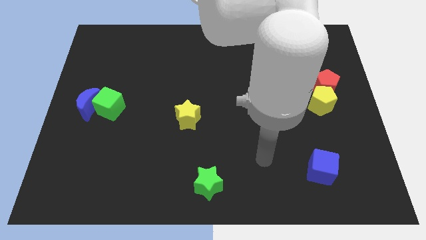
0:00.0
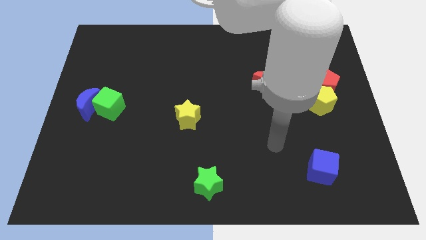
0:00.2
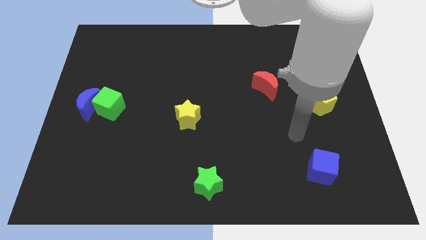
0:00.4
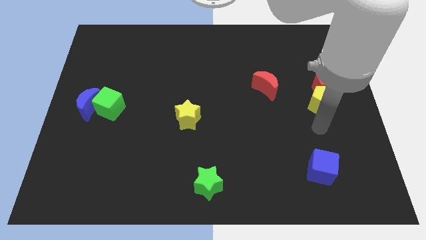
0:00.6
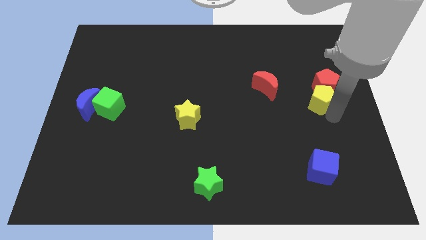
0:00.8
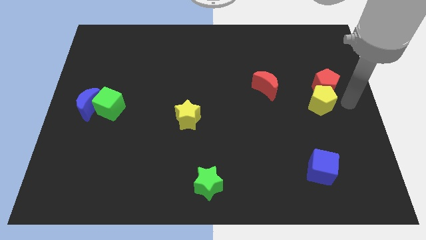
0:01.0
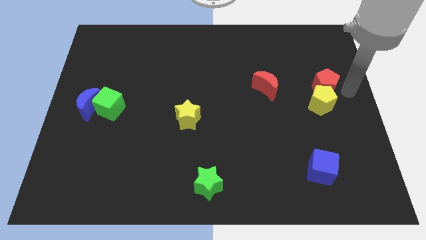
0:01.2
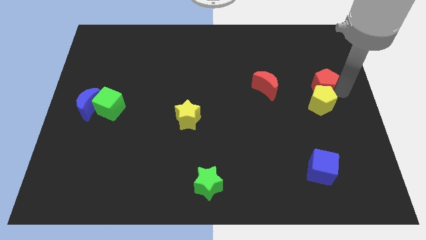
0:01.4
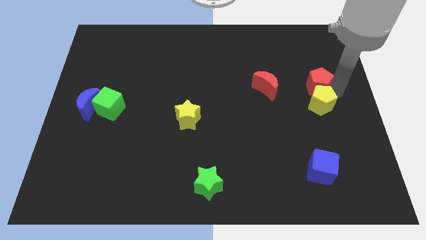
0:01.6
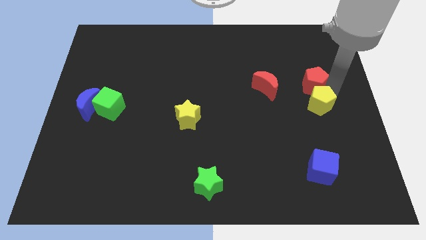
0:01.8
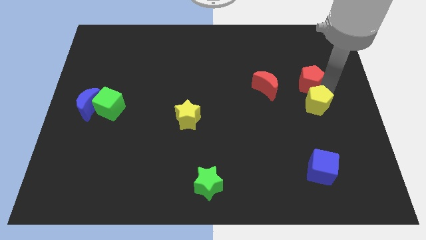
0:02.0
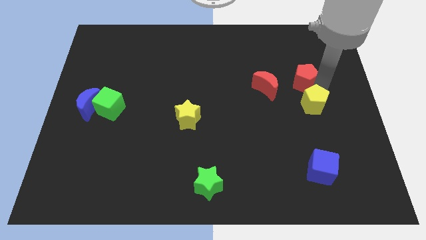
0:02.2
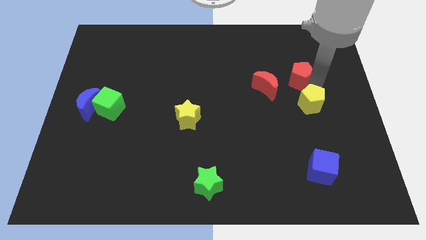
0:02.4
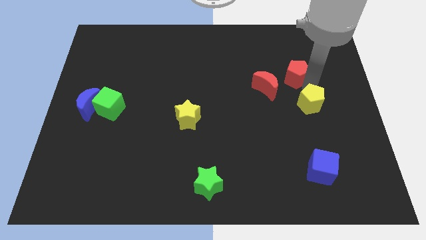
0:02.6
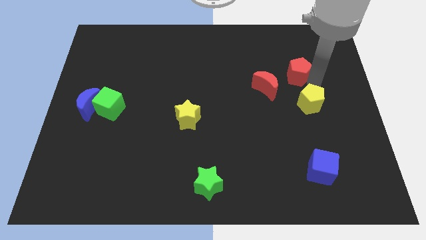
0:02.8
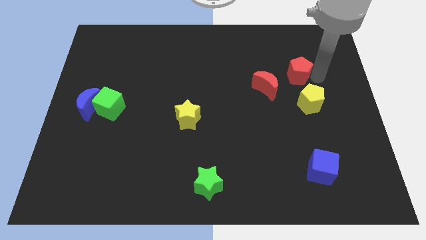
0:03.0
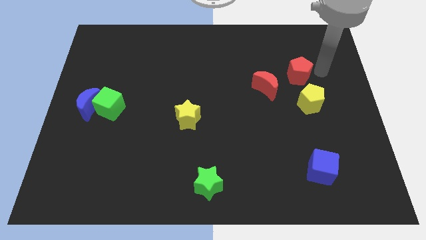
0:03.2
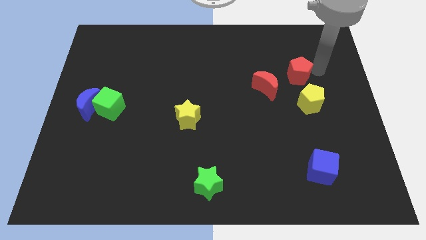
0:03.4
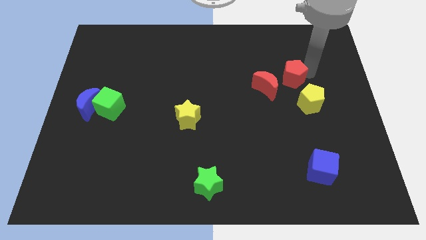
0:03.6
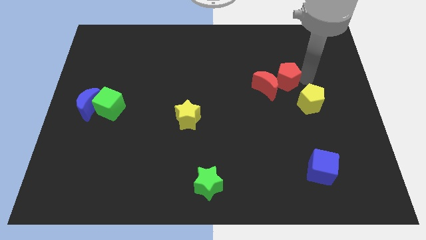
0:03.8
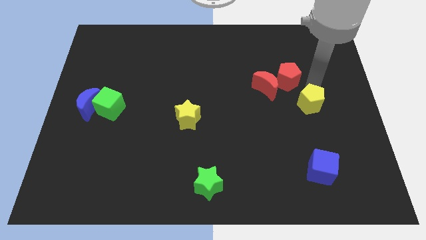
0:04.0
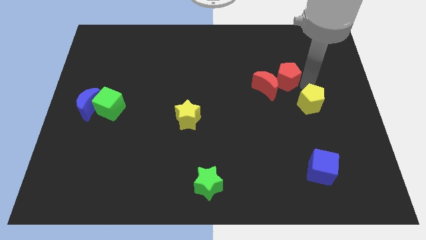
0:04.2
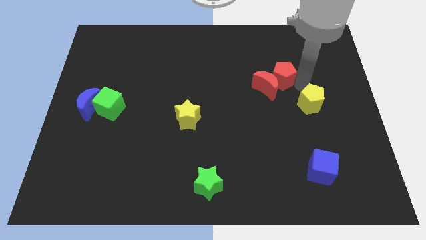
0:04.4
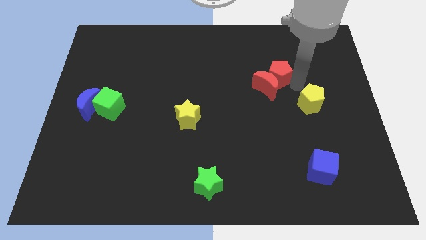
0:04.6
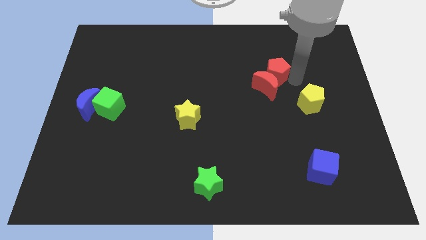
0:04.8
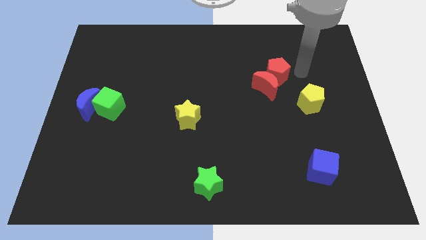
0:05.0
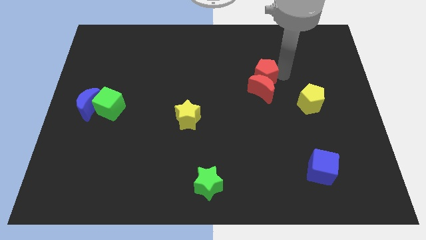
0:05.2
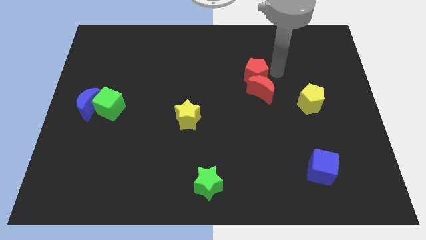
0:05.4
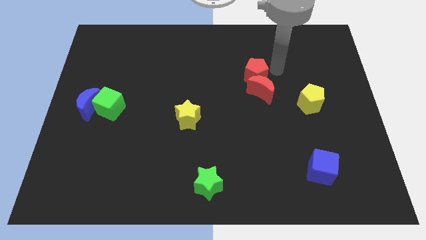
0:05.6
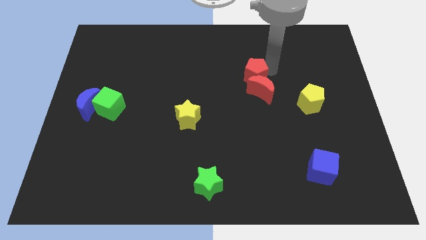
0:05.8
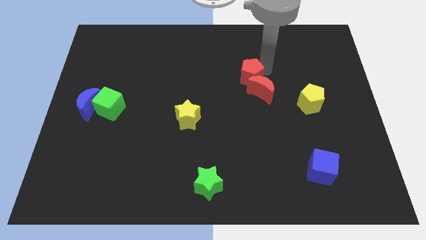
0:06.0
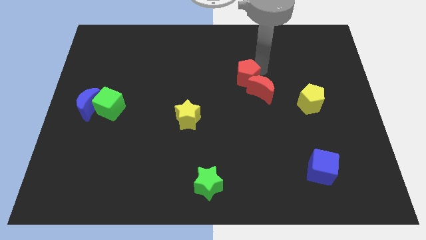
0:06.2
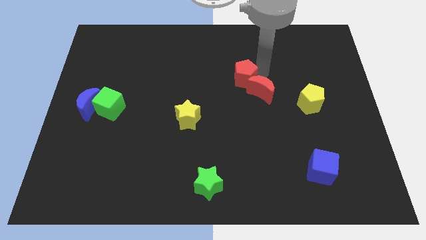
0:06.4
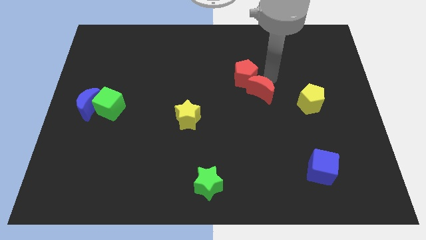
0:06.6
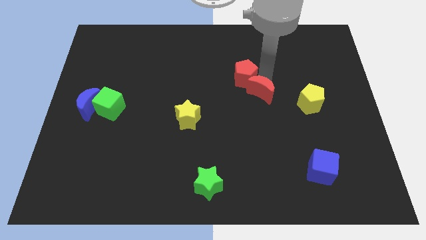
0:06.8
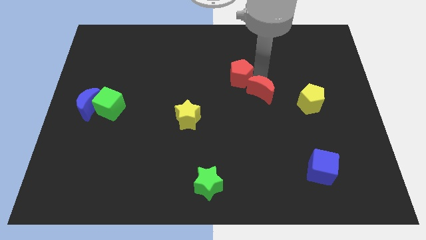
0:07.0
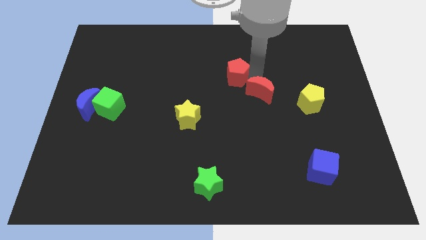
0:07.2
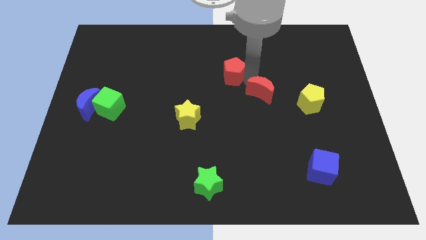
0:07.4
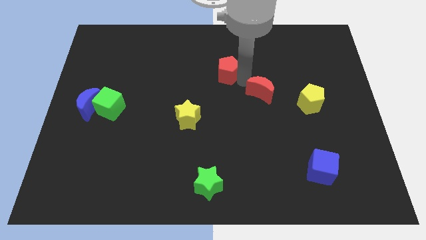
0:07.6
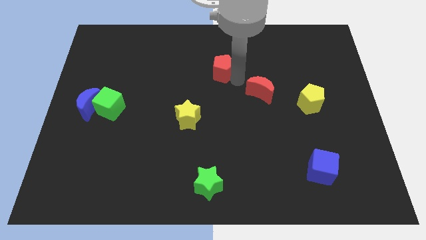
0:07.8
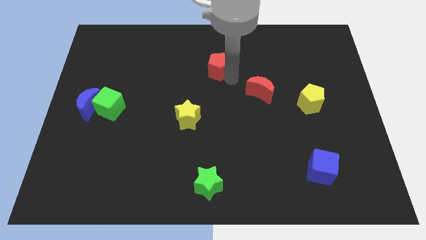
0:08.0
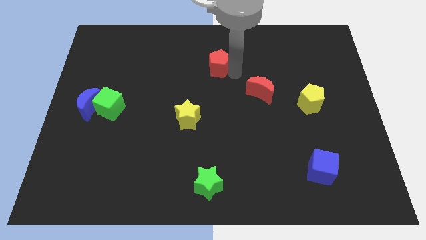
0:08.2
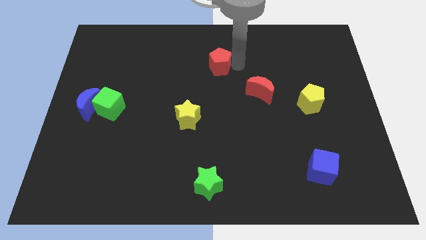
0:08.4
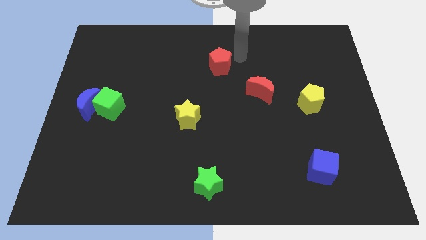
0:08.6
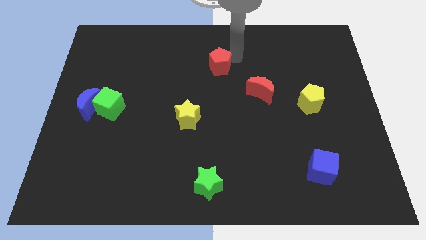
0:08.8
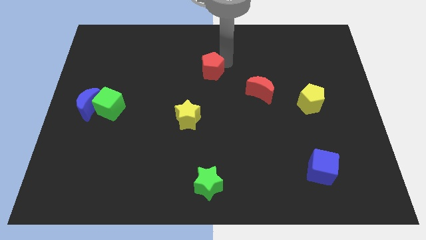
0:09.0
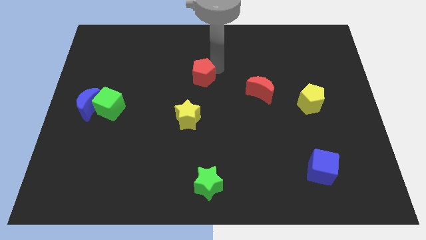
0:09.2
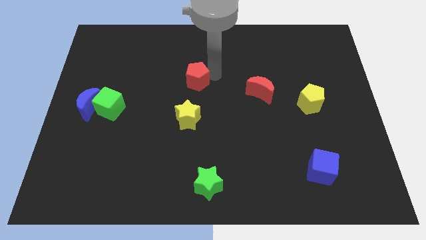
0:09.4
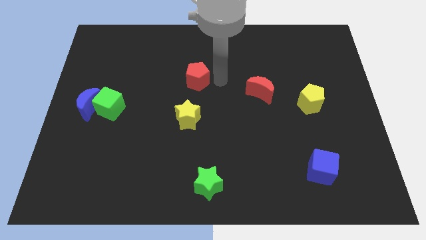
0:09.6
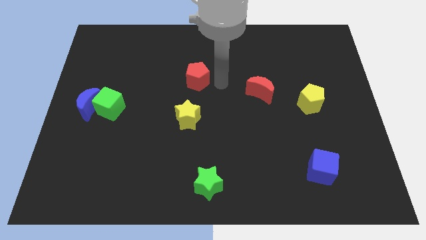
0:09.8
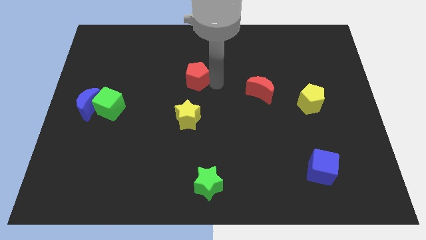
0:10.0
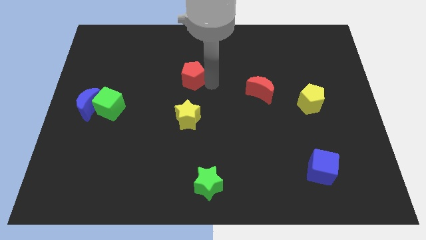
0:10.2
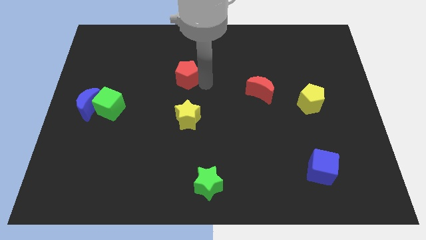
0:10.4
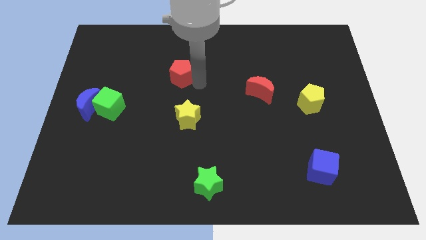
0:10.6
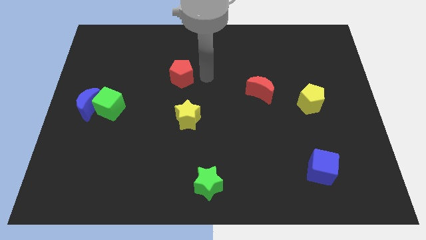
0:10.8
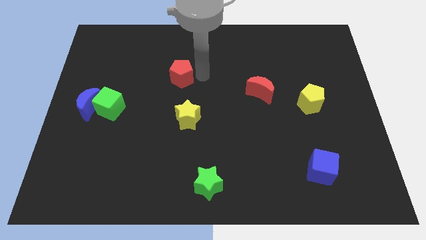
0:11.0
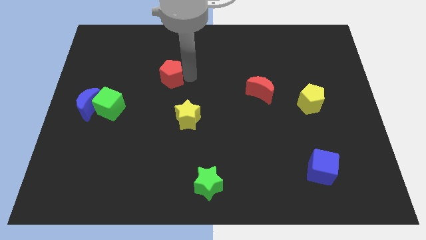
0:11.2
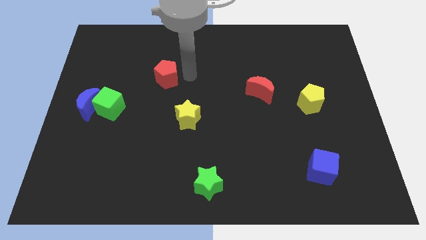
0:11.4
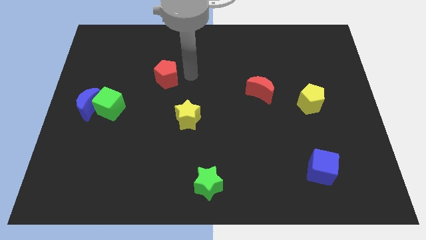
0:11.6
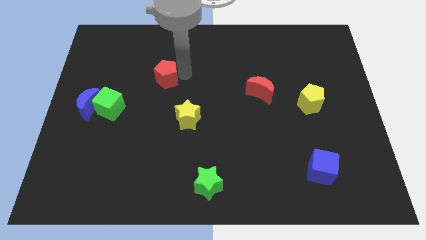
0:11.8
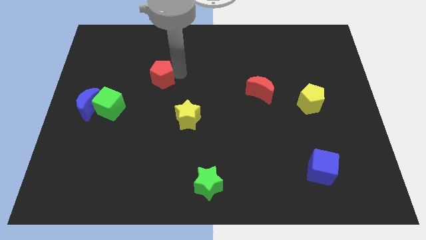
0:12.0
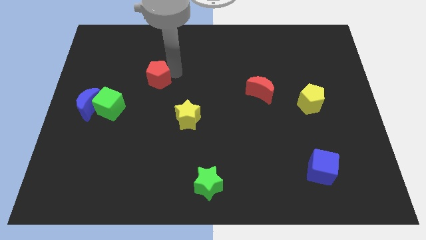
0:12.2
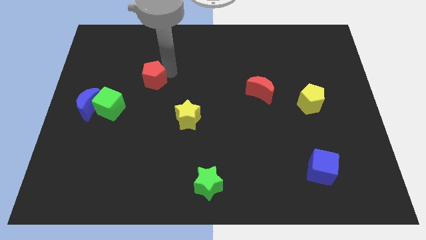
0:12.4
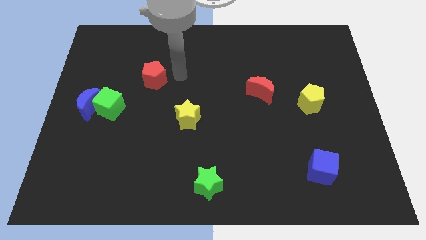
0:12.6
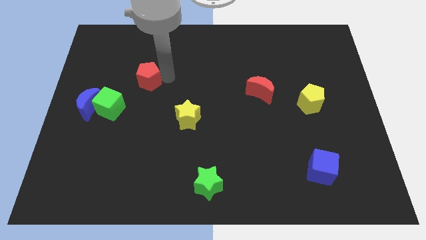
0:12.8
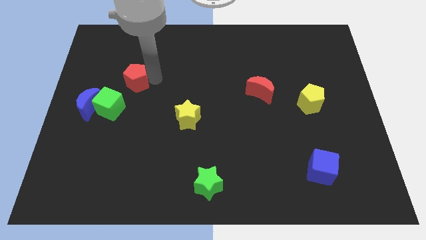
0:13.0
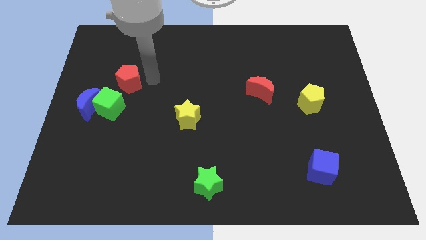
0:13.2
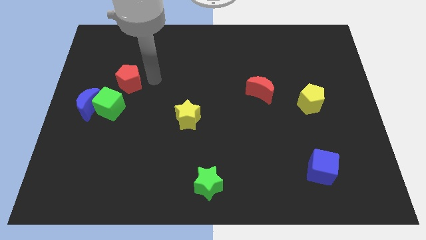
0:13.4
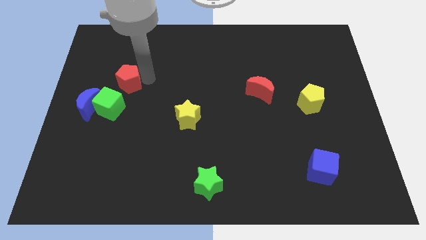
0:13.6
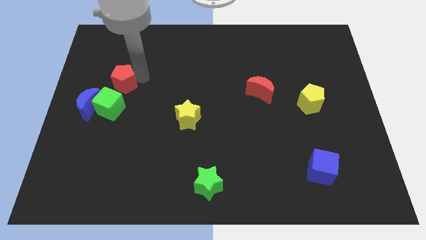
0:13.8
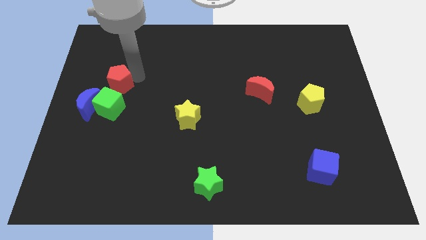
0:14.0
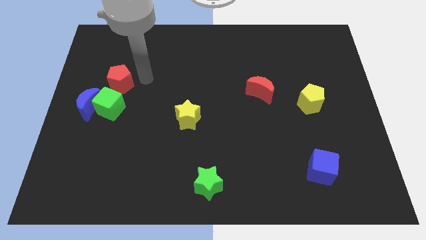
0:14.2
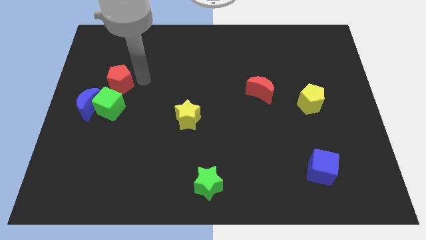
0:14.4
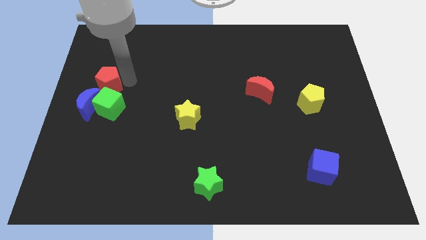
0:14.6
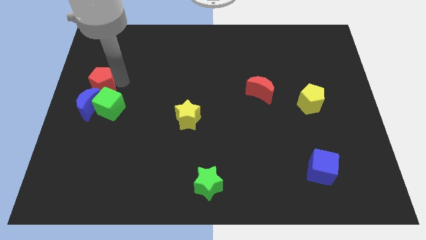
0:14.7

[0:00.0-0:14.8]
move the red pentagon to the left side
